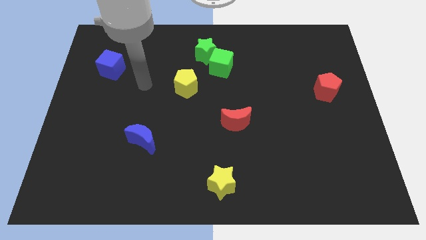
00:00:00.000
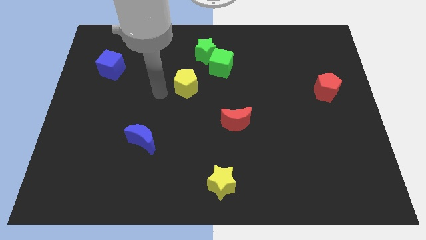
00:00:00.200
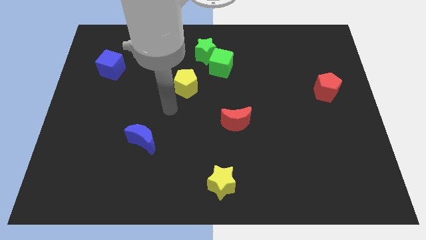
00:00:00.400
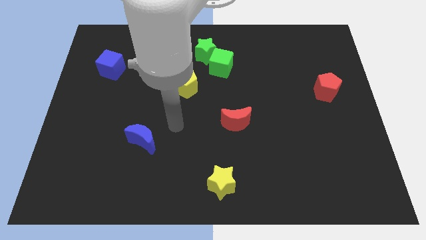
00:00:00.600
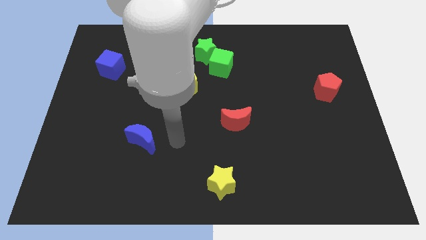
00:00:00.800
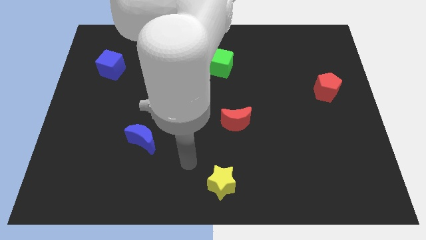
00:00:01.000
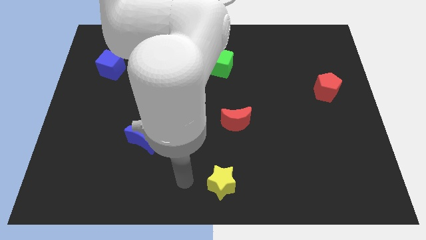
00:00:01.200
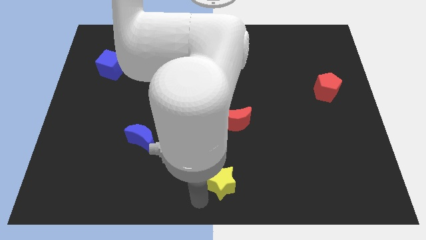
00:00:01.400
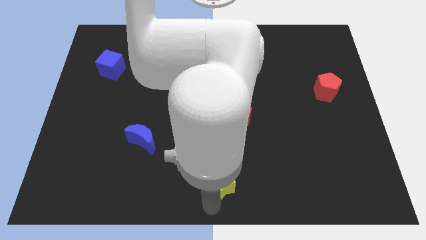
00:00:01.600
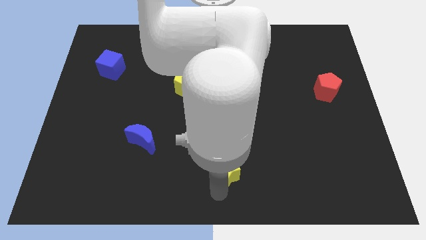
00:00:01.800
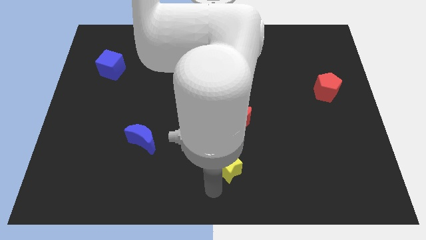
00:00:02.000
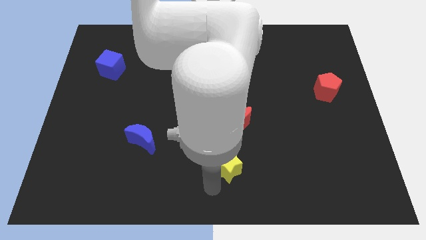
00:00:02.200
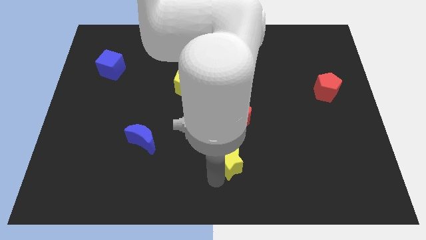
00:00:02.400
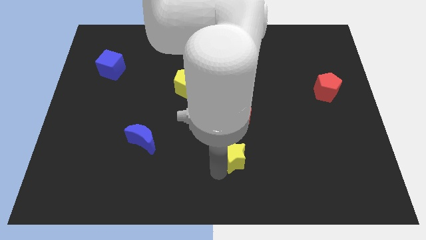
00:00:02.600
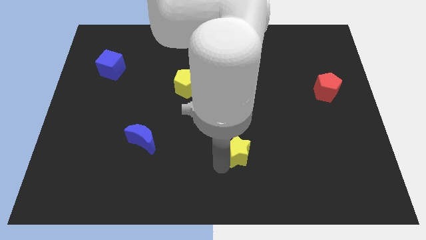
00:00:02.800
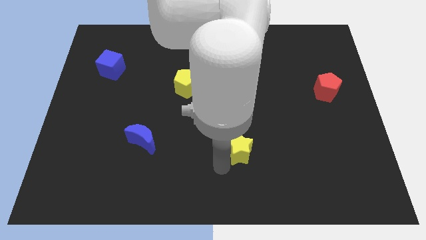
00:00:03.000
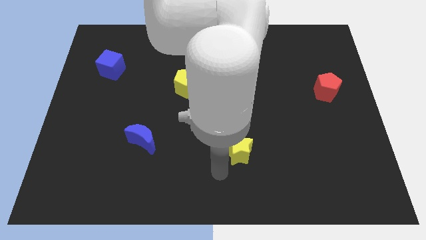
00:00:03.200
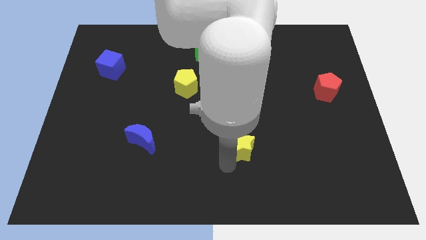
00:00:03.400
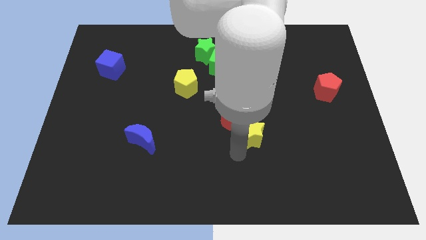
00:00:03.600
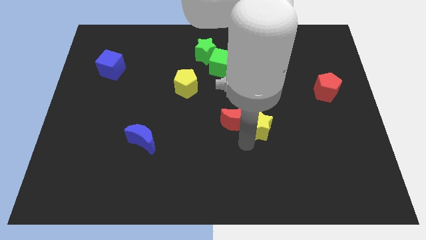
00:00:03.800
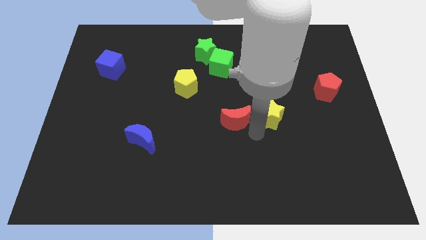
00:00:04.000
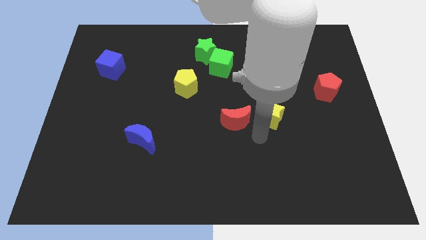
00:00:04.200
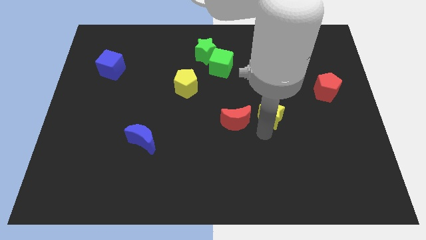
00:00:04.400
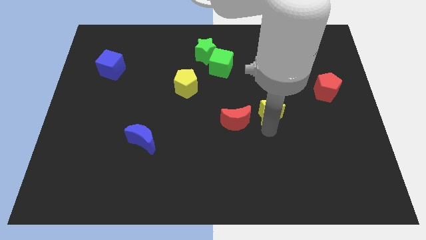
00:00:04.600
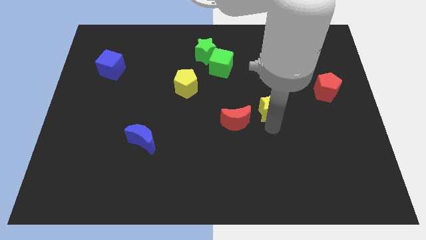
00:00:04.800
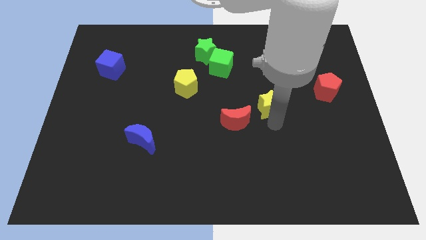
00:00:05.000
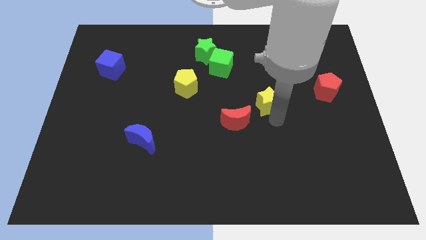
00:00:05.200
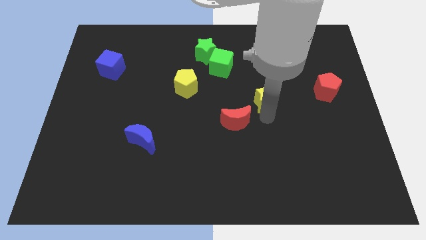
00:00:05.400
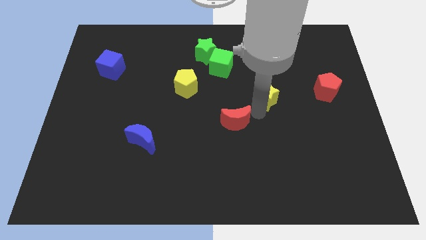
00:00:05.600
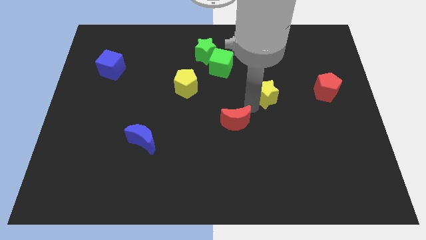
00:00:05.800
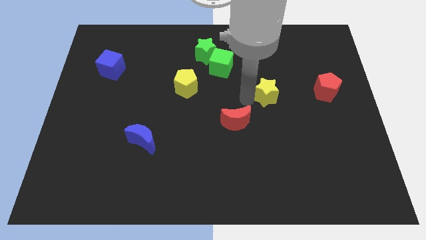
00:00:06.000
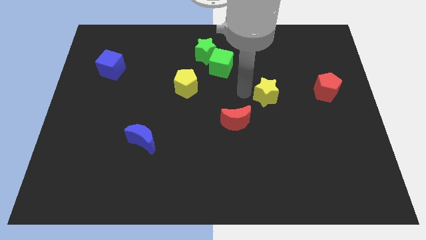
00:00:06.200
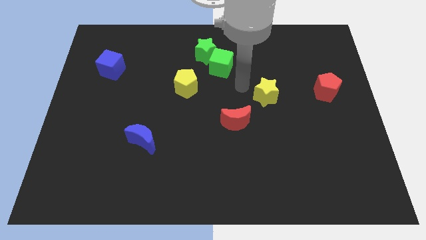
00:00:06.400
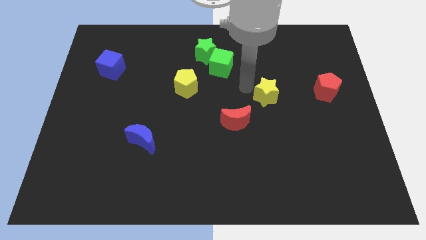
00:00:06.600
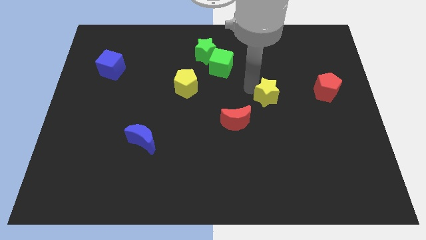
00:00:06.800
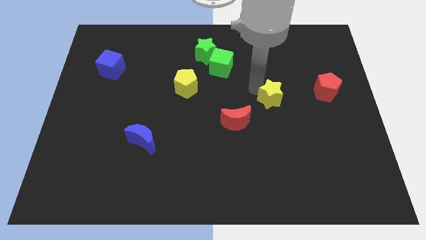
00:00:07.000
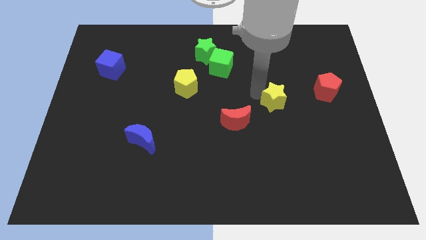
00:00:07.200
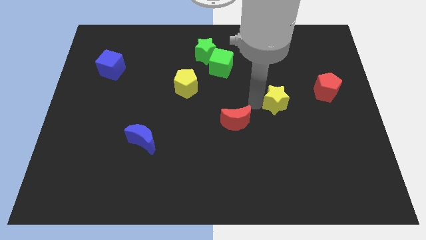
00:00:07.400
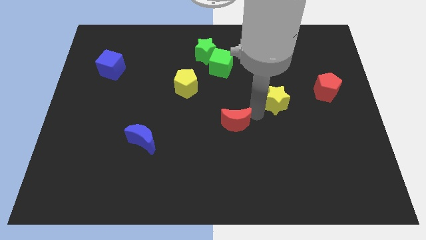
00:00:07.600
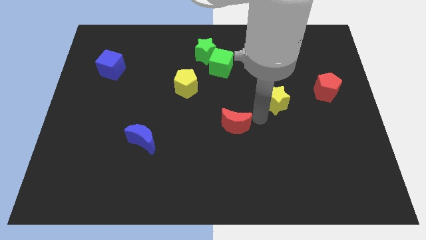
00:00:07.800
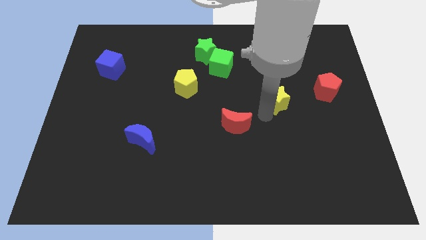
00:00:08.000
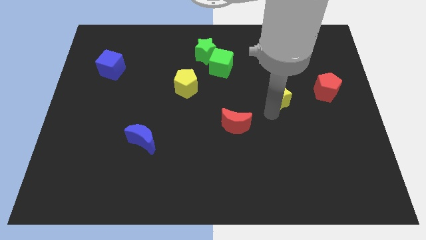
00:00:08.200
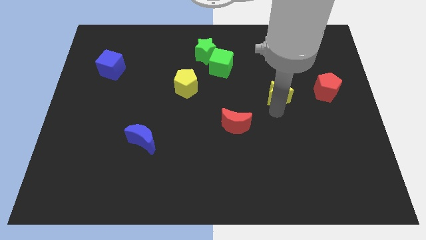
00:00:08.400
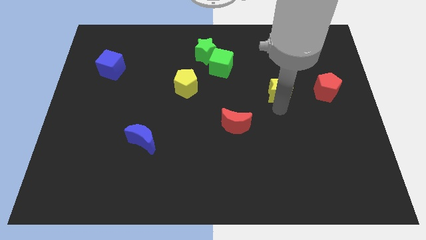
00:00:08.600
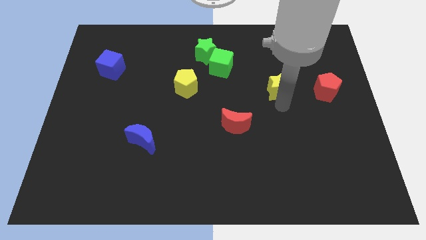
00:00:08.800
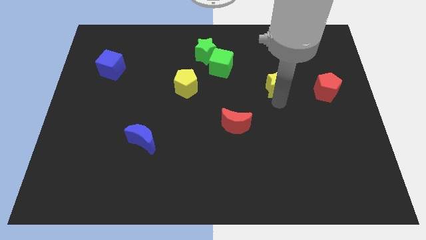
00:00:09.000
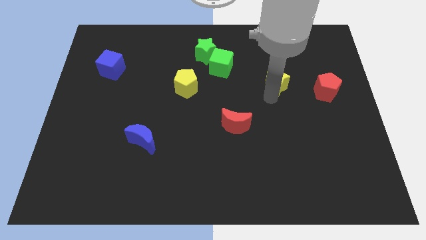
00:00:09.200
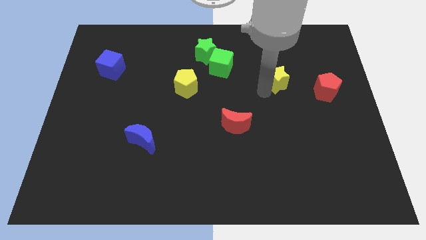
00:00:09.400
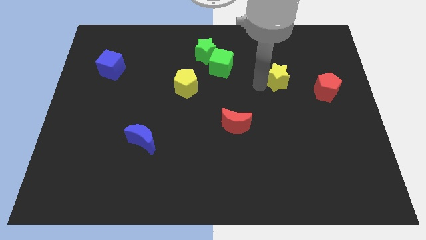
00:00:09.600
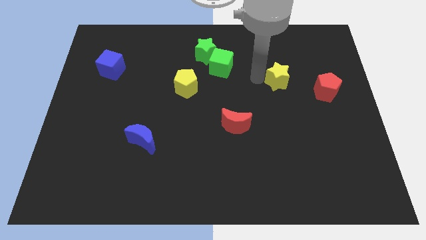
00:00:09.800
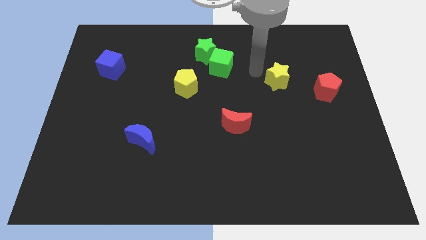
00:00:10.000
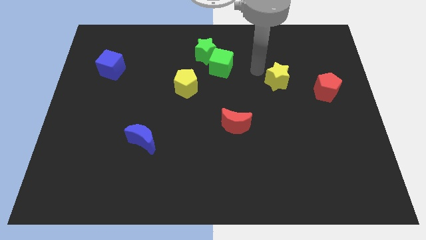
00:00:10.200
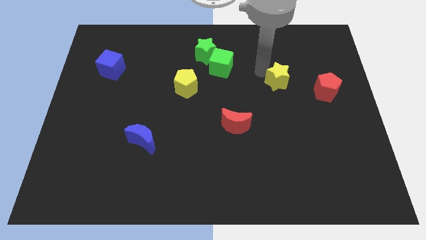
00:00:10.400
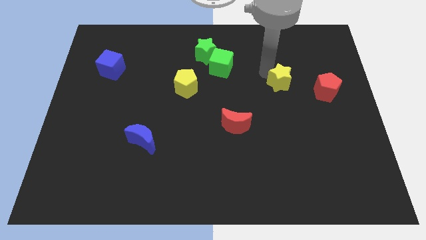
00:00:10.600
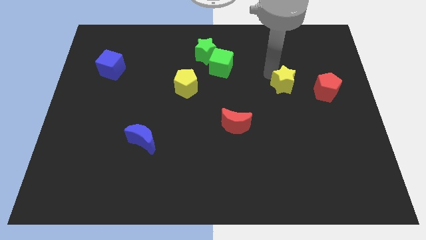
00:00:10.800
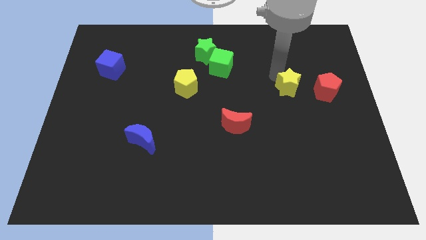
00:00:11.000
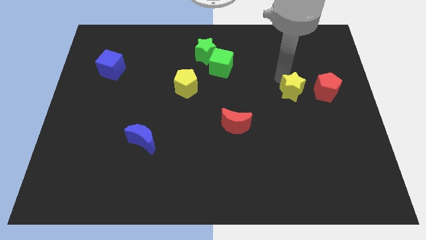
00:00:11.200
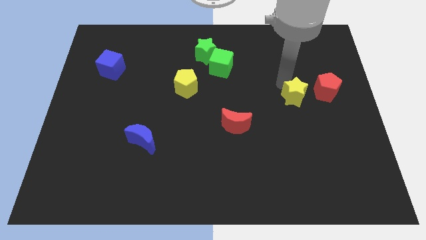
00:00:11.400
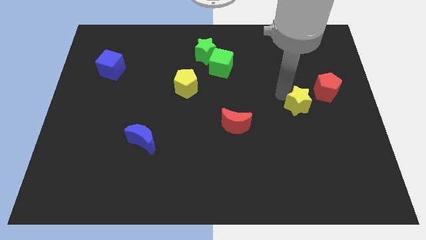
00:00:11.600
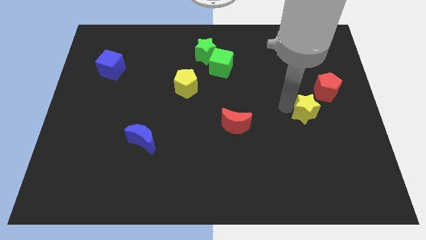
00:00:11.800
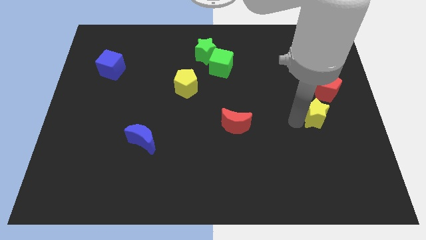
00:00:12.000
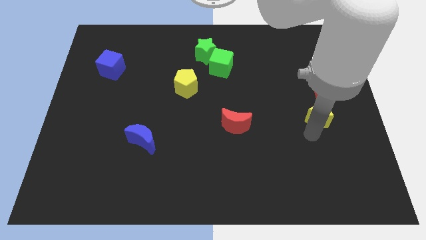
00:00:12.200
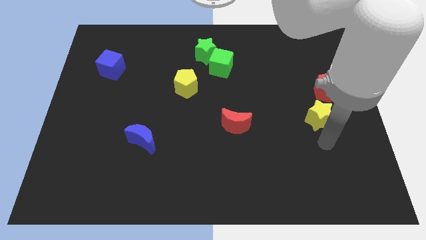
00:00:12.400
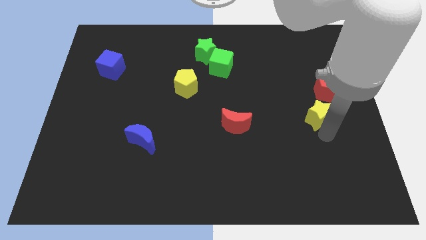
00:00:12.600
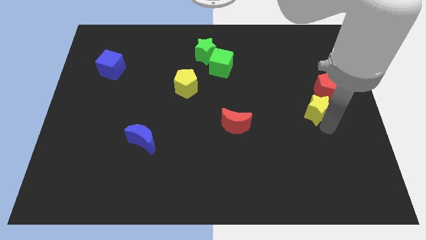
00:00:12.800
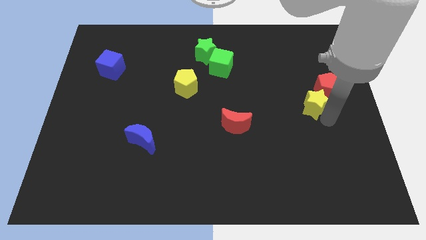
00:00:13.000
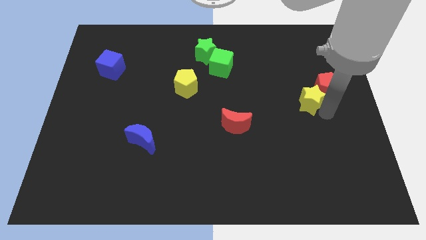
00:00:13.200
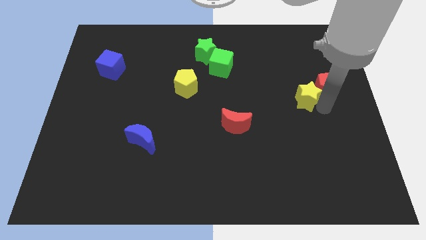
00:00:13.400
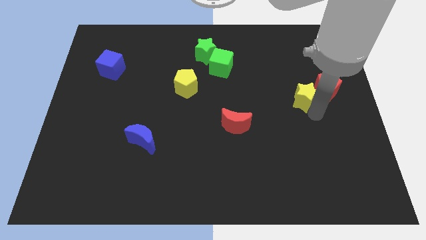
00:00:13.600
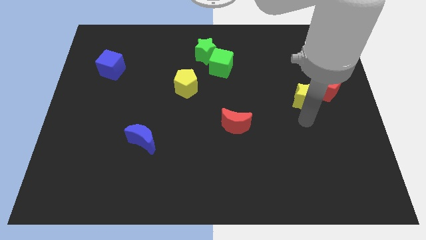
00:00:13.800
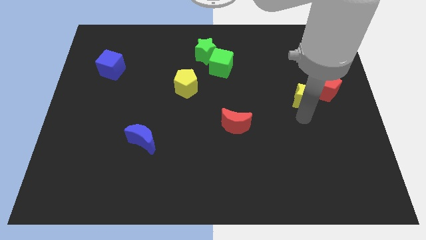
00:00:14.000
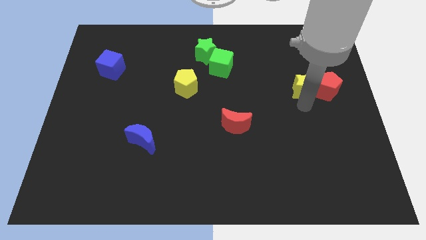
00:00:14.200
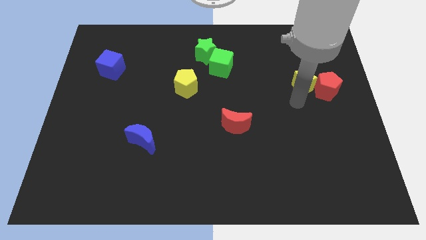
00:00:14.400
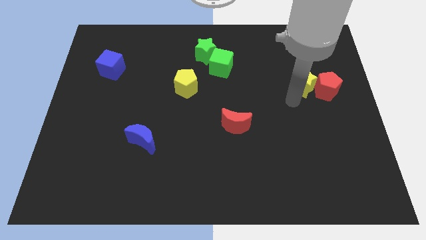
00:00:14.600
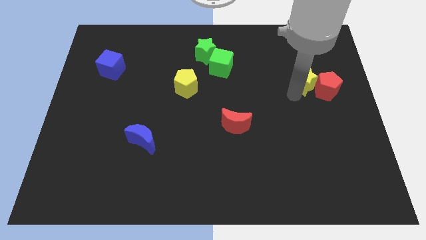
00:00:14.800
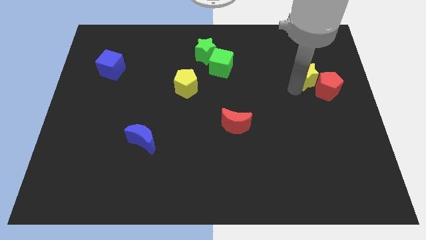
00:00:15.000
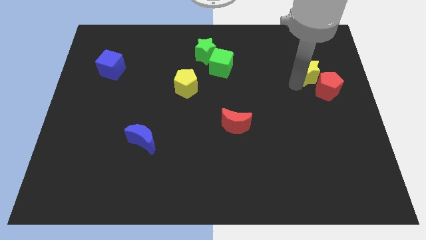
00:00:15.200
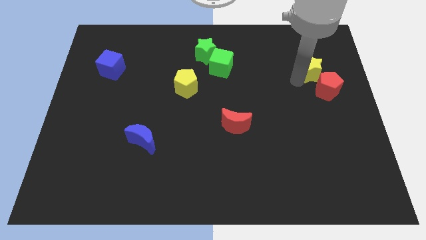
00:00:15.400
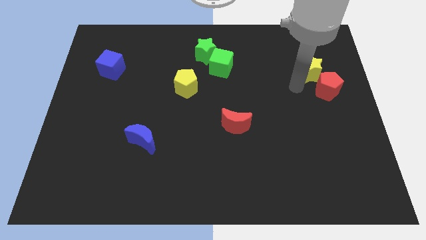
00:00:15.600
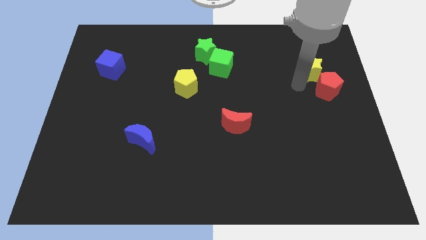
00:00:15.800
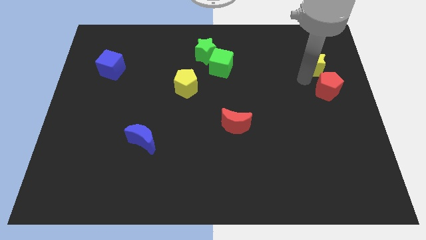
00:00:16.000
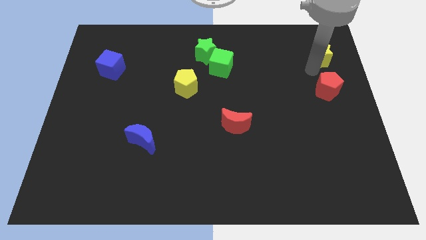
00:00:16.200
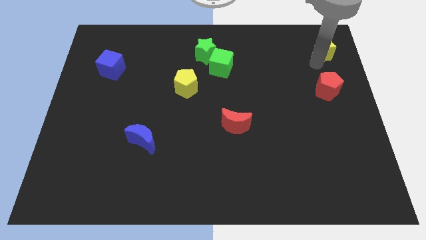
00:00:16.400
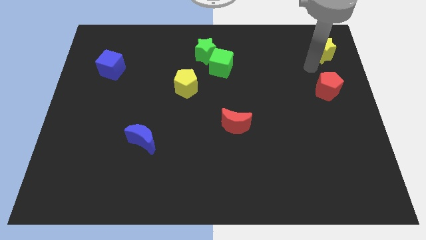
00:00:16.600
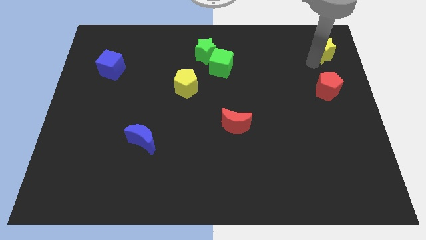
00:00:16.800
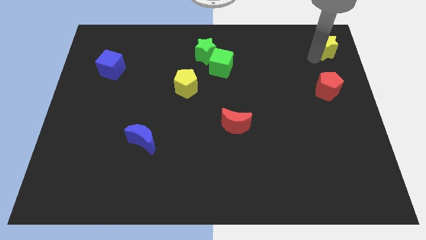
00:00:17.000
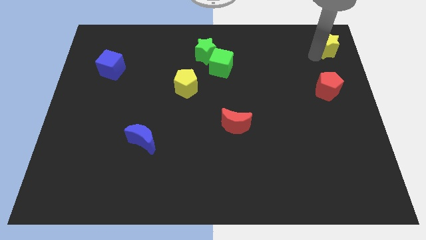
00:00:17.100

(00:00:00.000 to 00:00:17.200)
push the yellow star to the upper right corner
